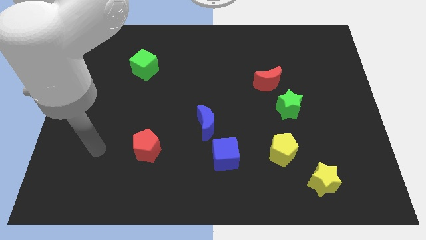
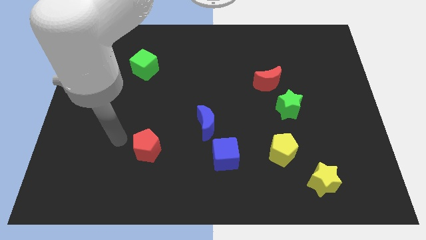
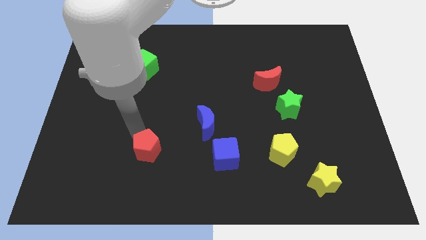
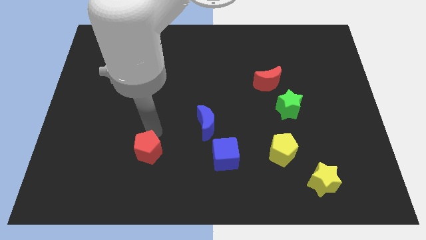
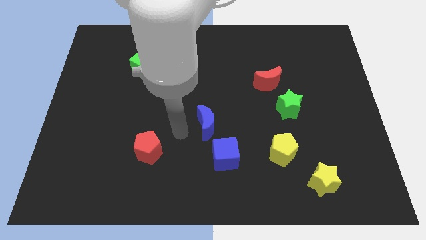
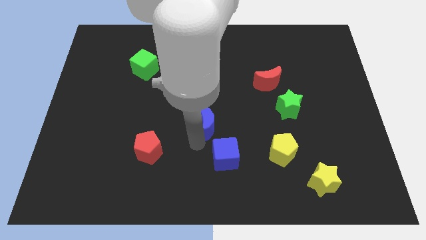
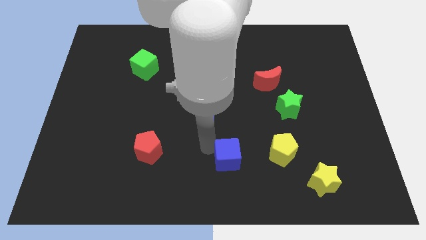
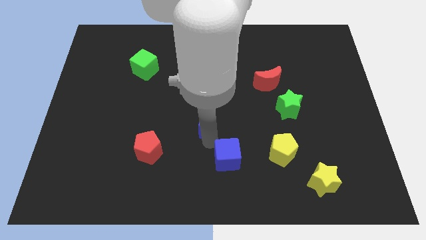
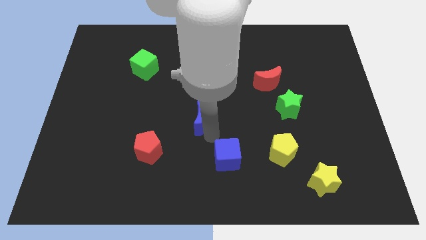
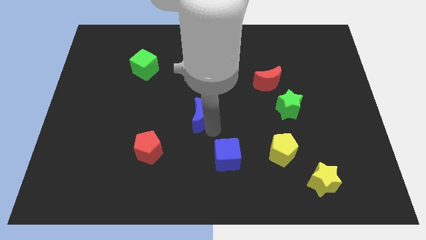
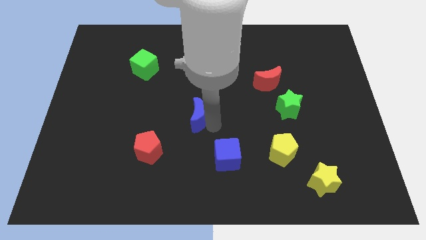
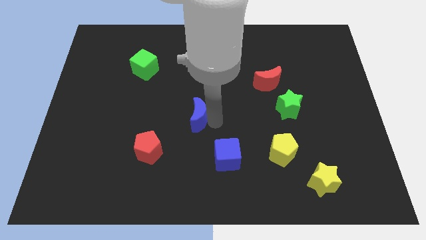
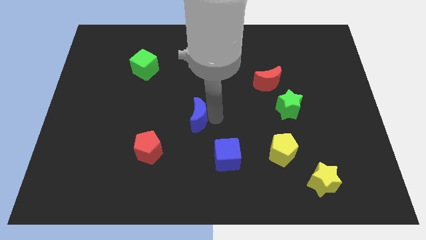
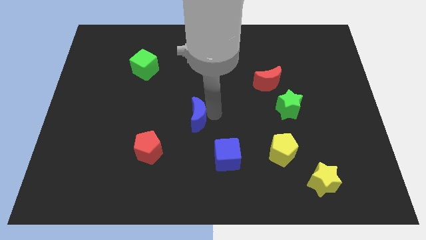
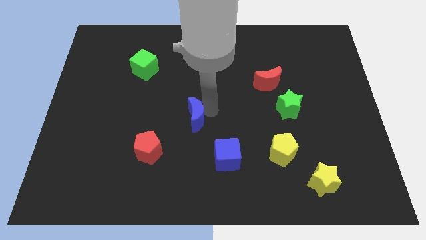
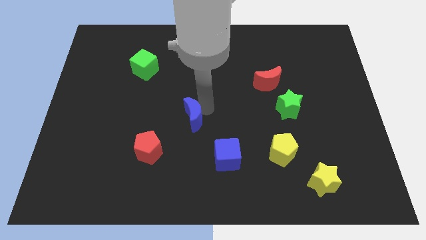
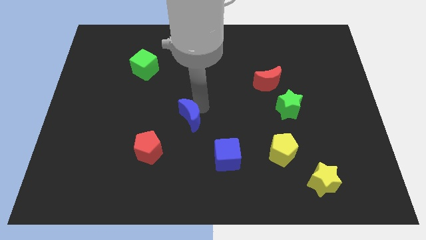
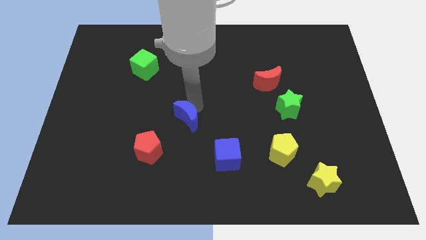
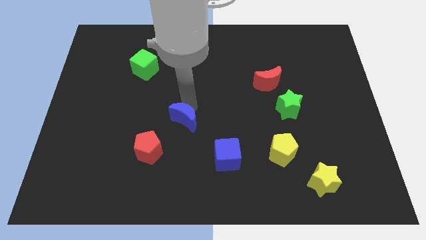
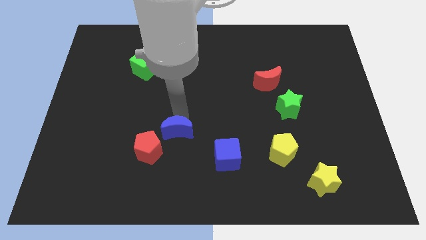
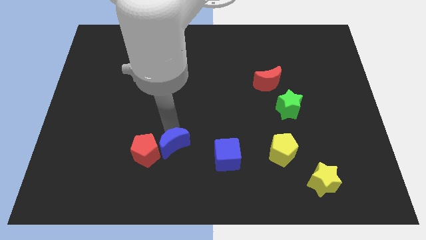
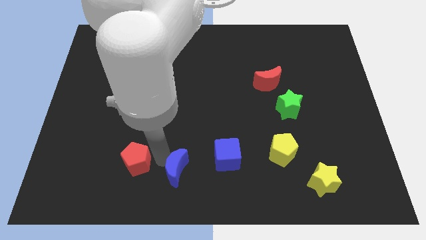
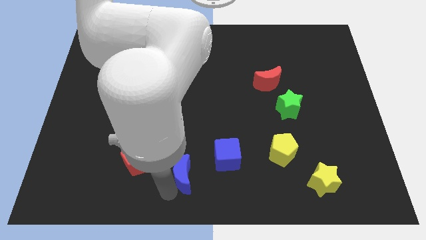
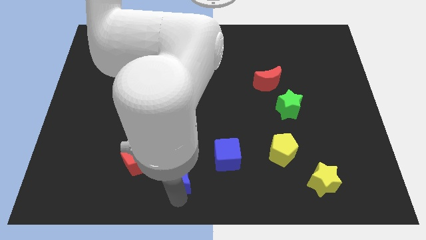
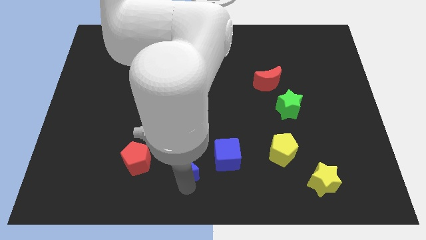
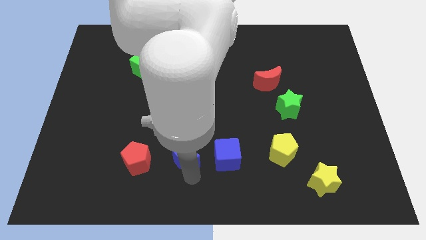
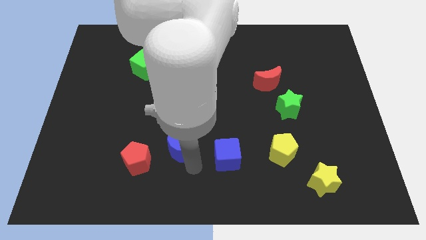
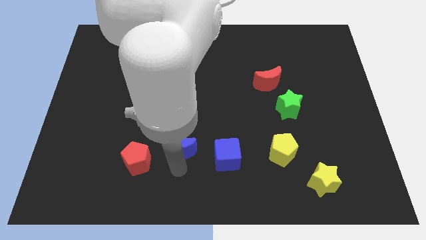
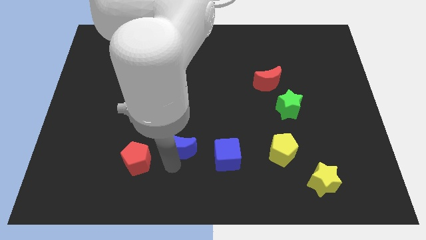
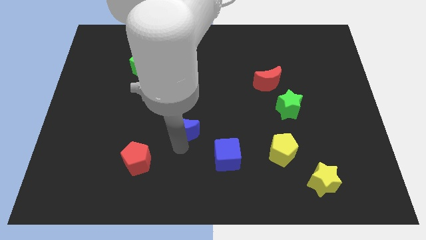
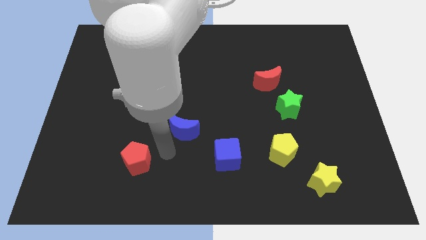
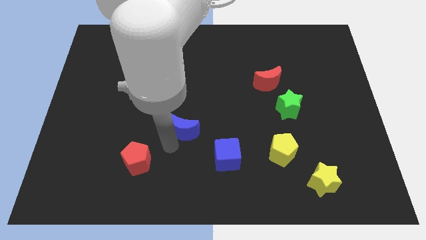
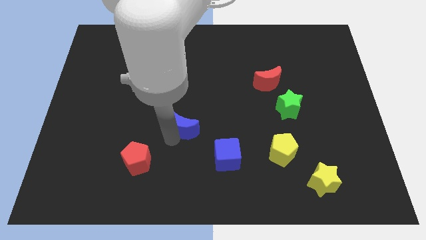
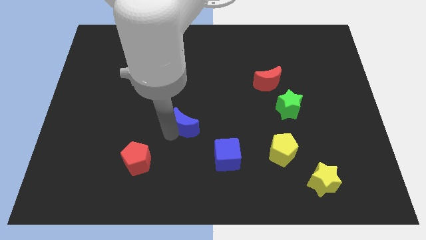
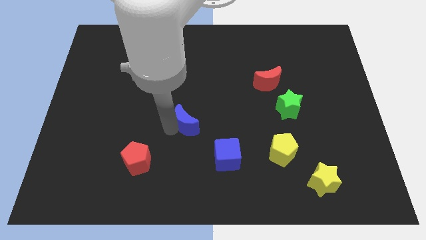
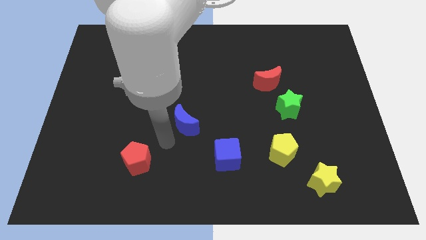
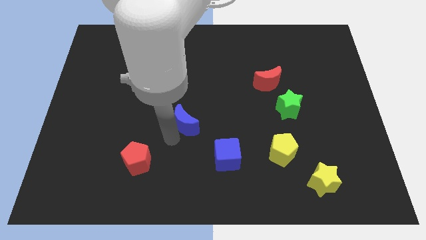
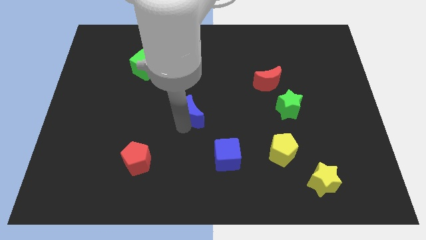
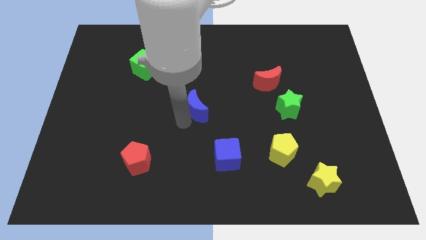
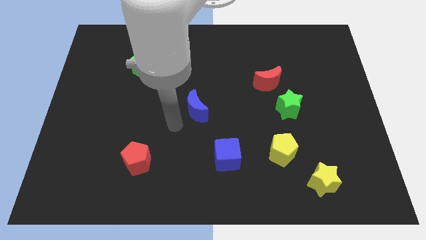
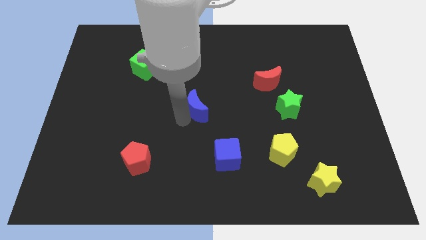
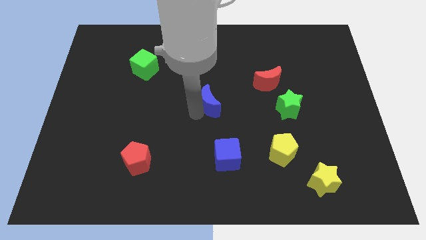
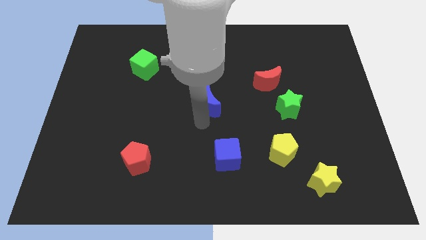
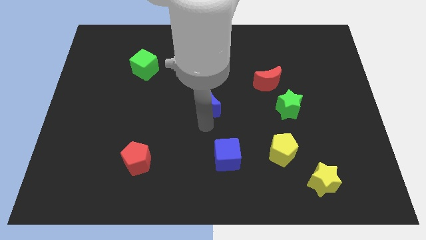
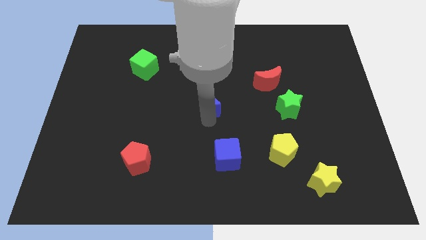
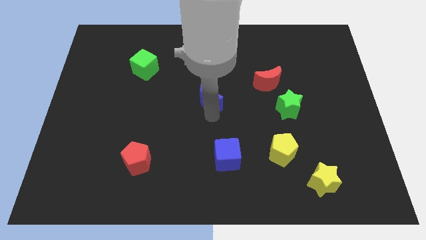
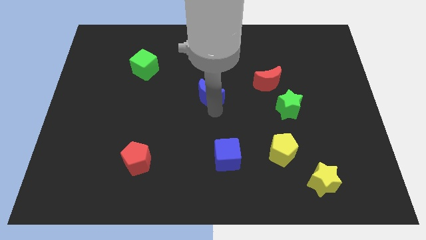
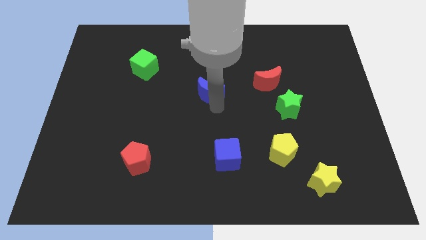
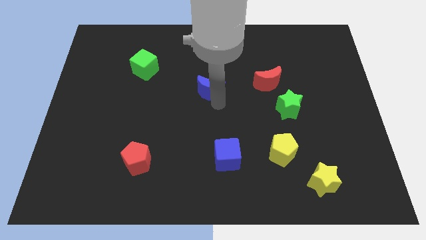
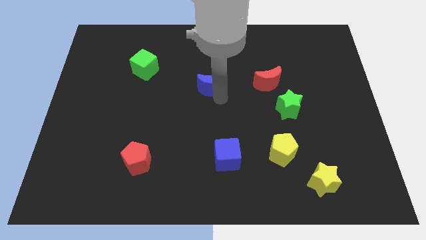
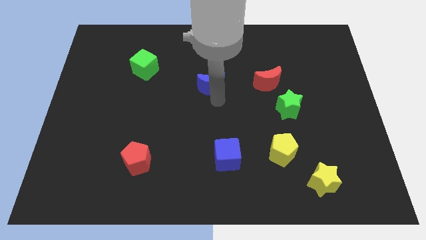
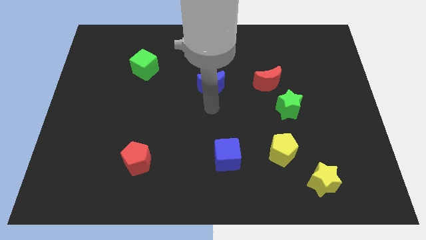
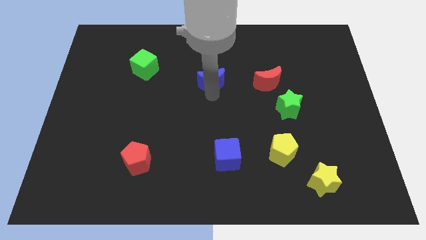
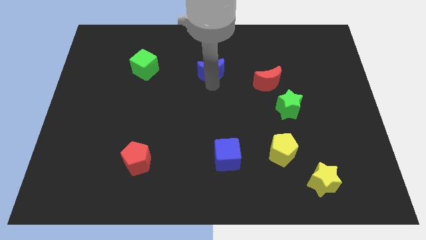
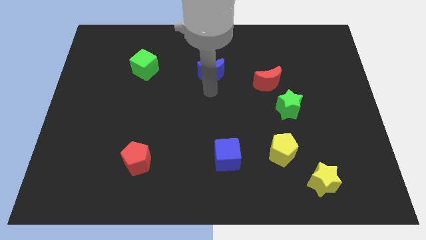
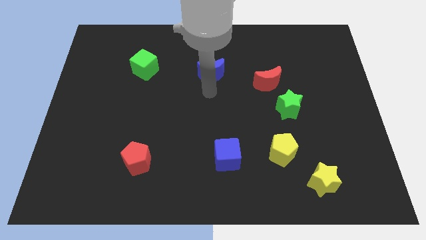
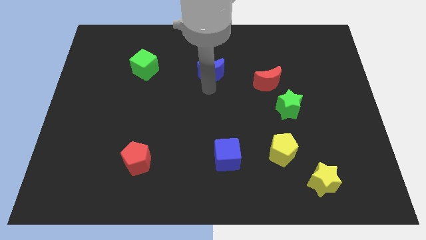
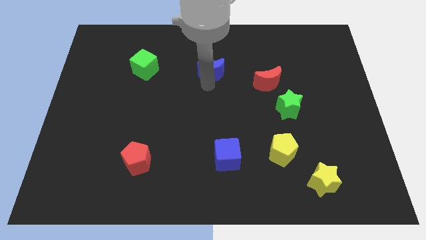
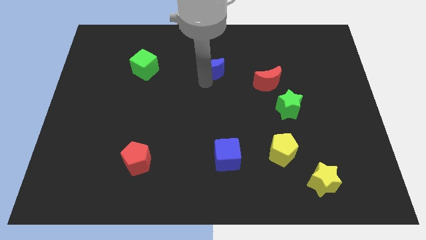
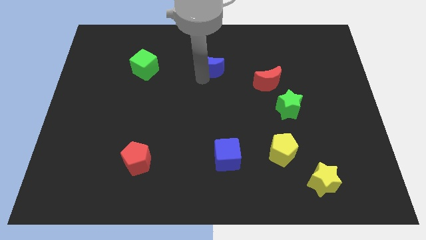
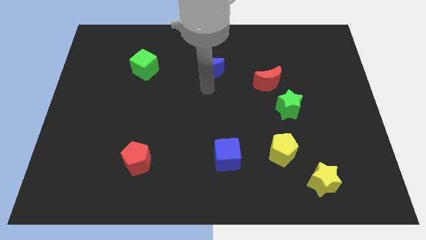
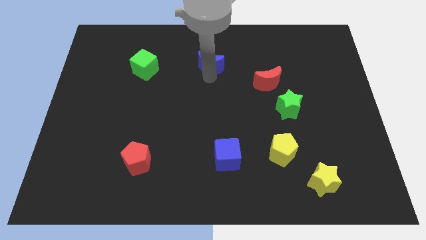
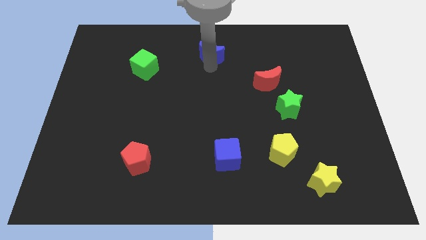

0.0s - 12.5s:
move the blue moon to the top side
